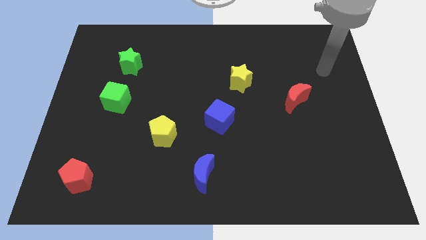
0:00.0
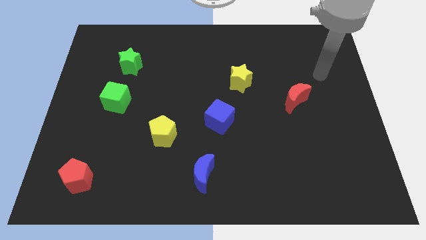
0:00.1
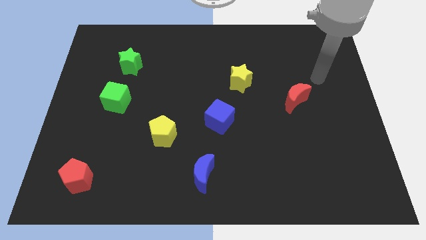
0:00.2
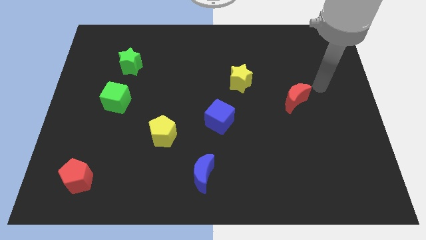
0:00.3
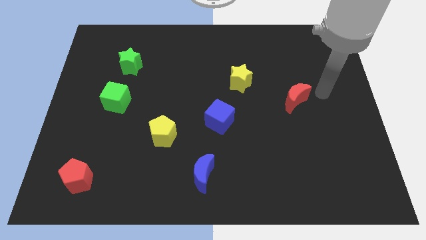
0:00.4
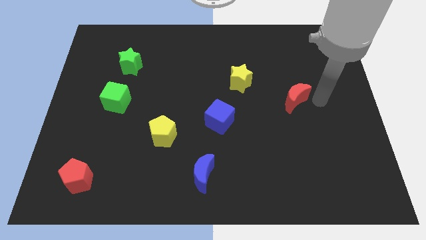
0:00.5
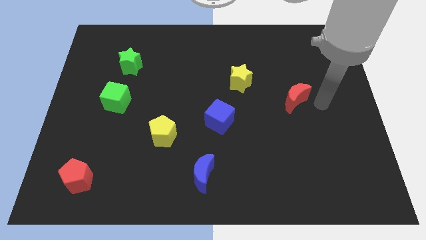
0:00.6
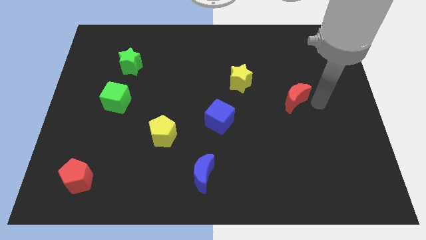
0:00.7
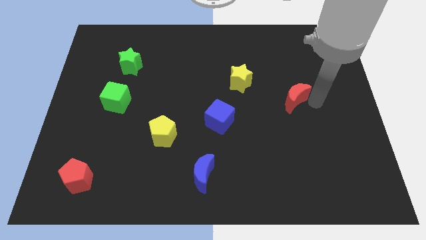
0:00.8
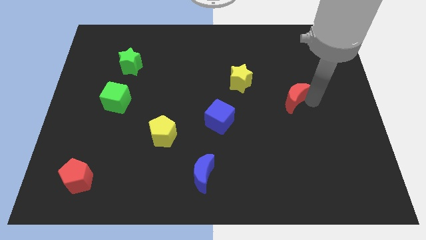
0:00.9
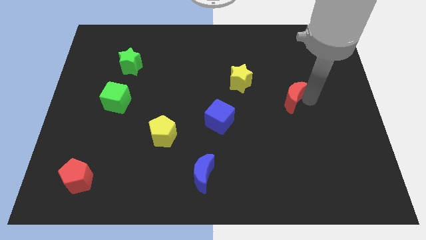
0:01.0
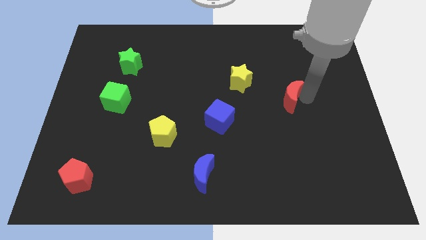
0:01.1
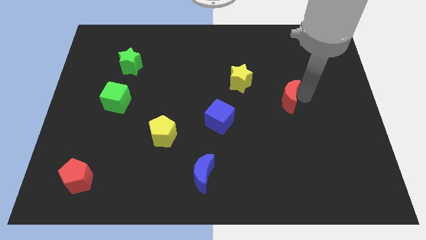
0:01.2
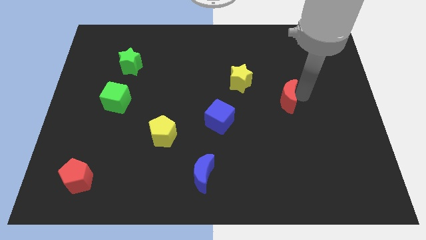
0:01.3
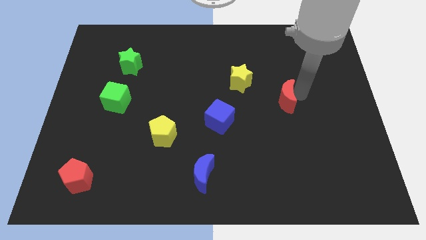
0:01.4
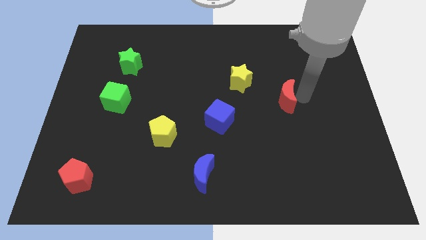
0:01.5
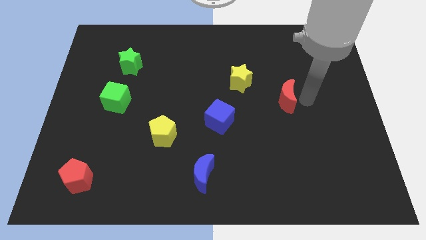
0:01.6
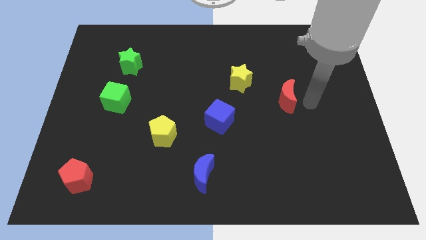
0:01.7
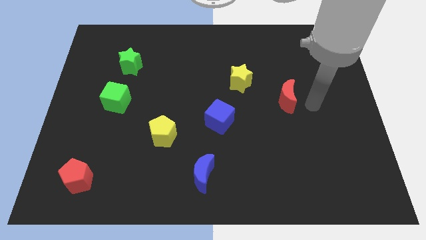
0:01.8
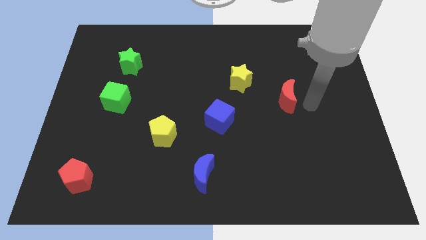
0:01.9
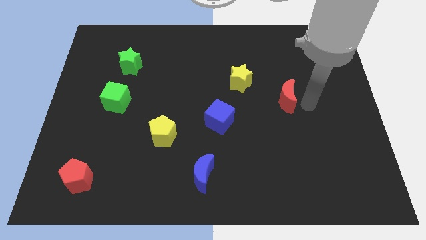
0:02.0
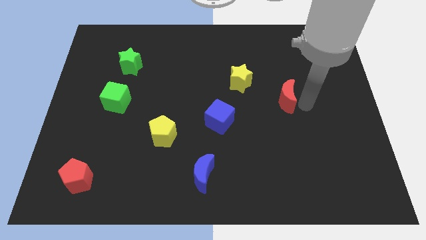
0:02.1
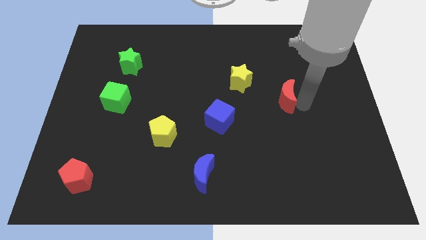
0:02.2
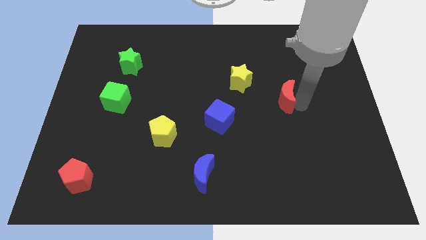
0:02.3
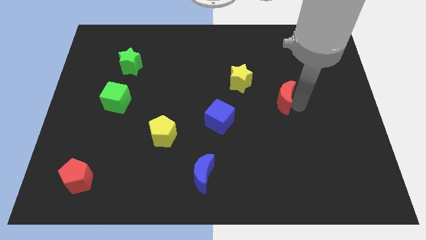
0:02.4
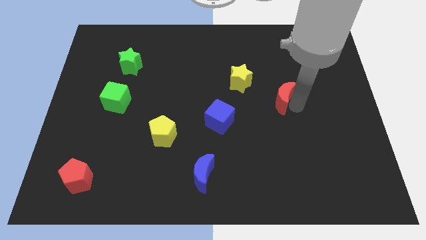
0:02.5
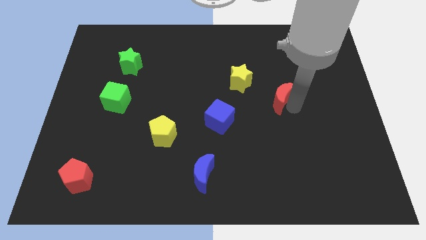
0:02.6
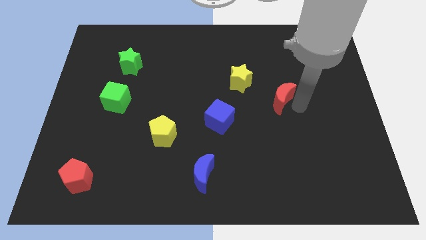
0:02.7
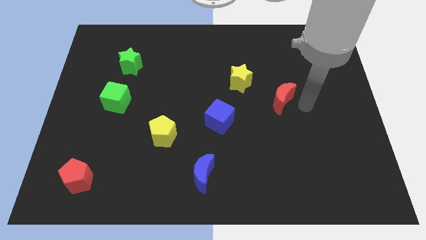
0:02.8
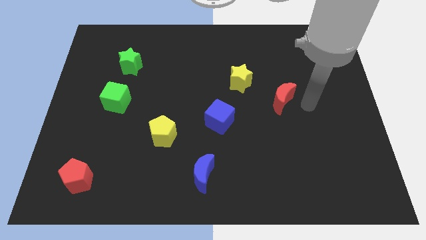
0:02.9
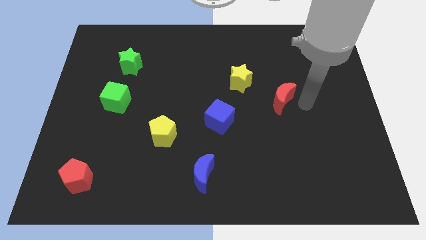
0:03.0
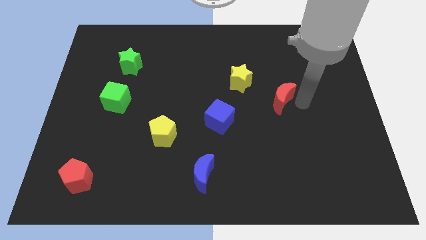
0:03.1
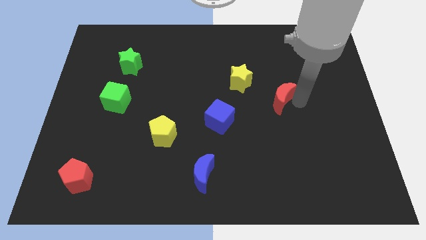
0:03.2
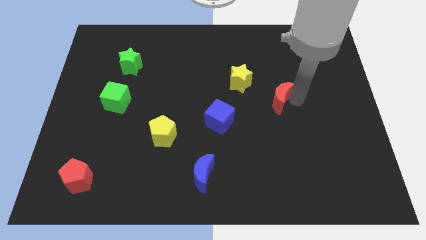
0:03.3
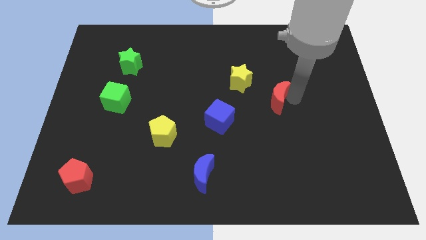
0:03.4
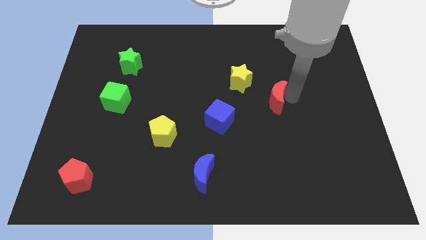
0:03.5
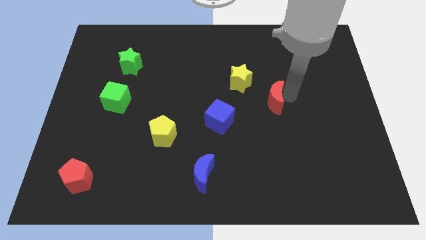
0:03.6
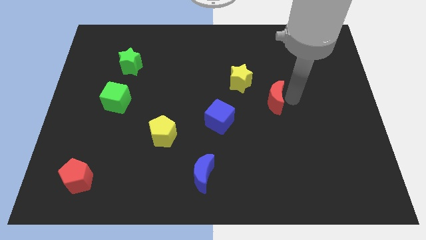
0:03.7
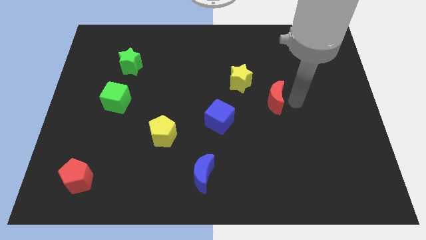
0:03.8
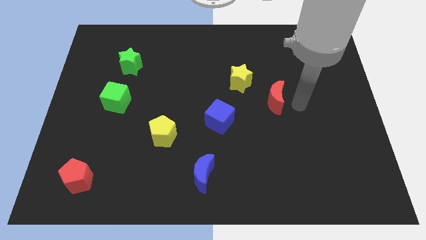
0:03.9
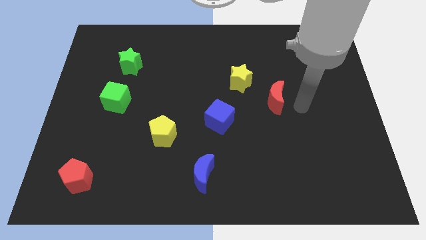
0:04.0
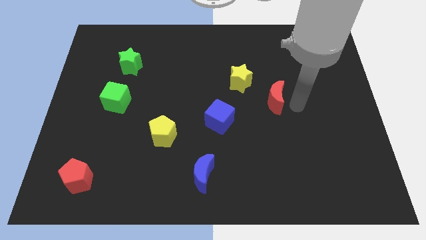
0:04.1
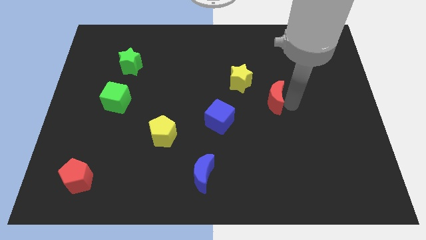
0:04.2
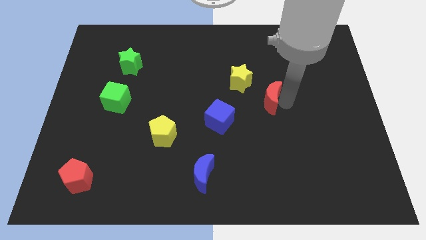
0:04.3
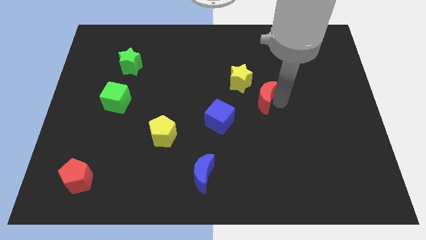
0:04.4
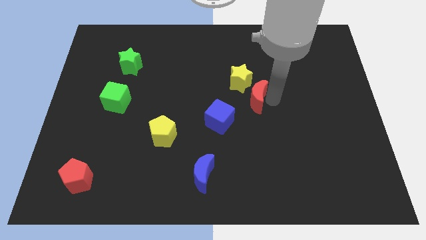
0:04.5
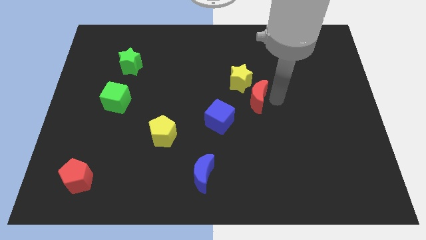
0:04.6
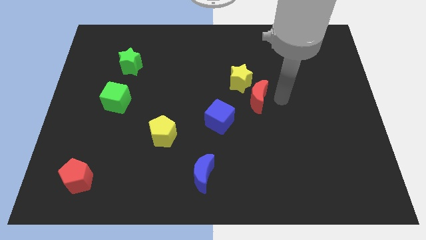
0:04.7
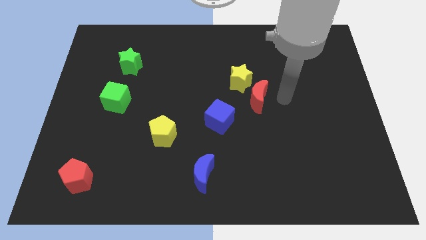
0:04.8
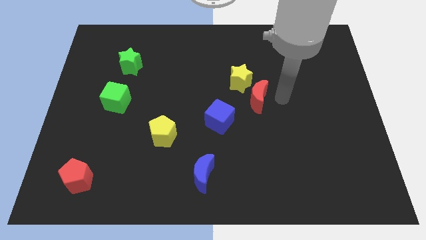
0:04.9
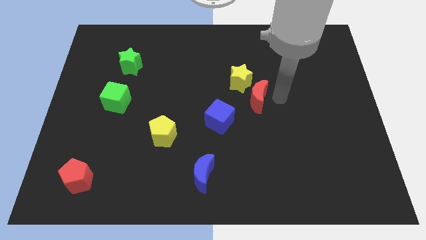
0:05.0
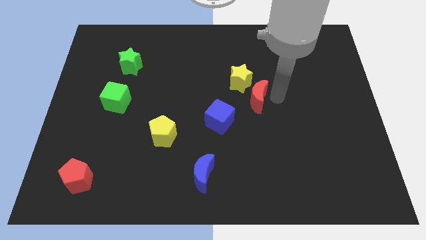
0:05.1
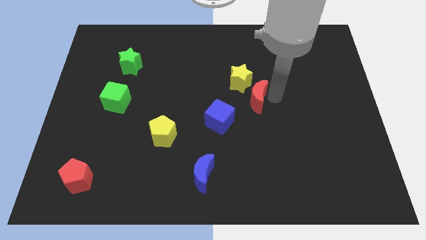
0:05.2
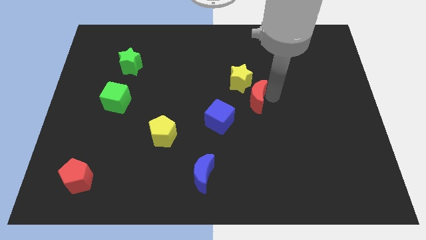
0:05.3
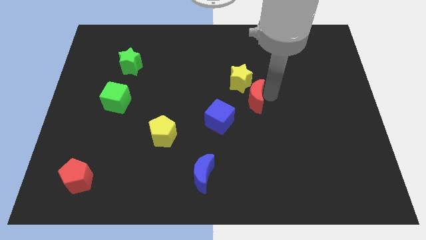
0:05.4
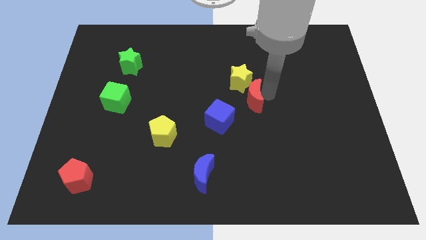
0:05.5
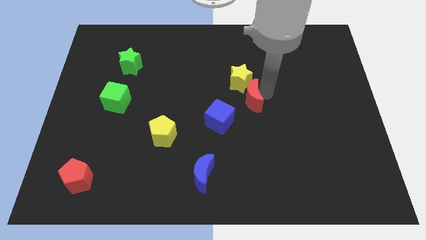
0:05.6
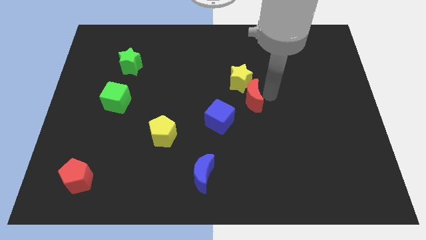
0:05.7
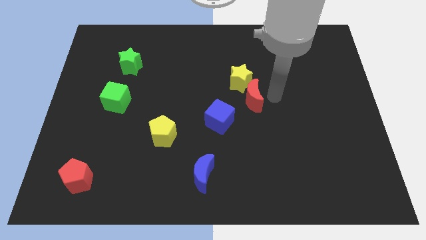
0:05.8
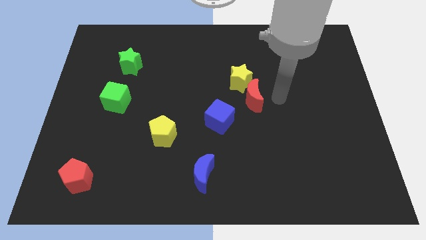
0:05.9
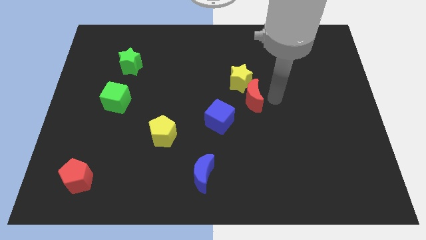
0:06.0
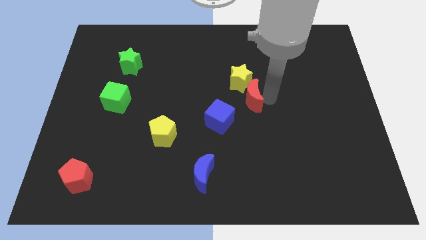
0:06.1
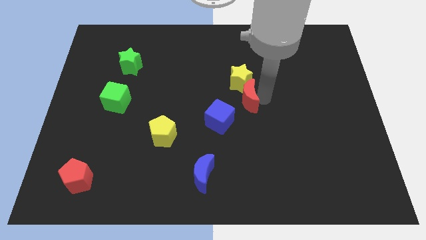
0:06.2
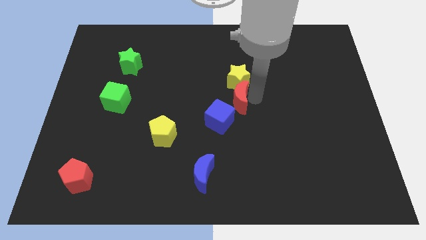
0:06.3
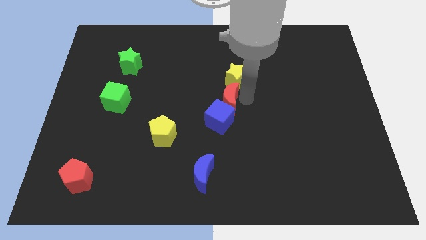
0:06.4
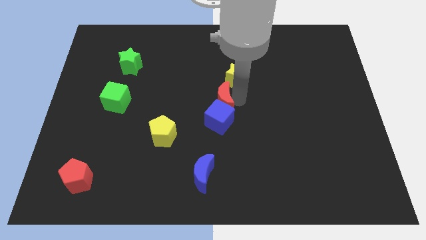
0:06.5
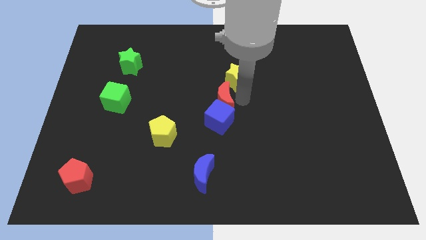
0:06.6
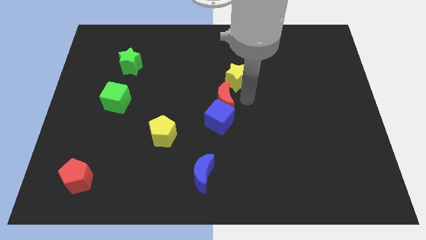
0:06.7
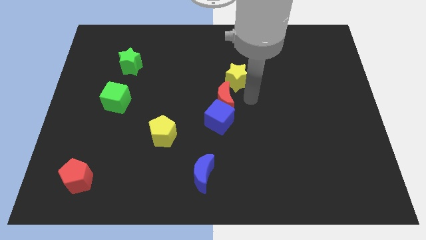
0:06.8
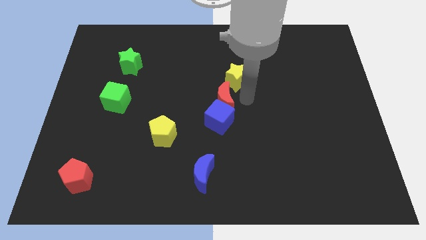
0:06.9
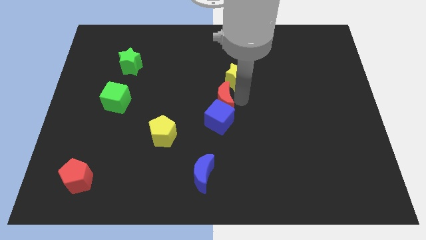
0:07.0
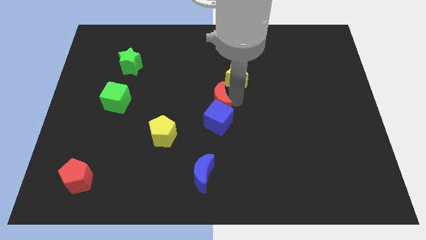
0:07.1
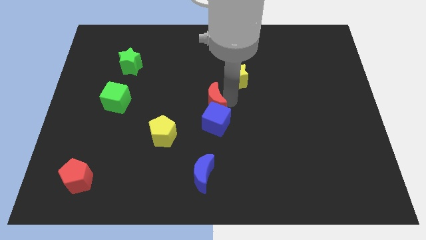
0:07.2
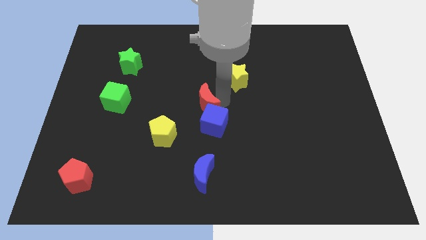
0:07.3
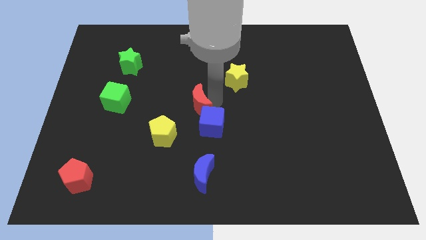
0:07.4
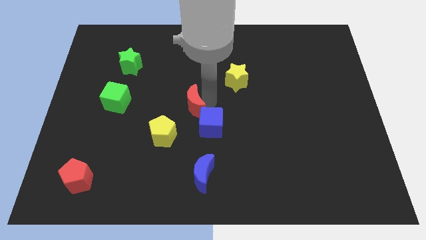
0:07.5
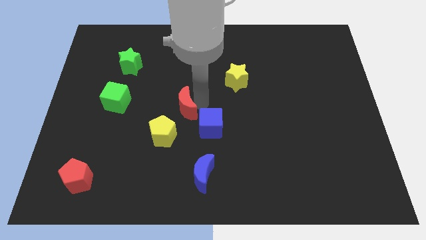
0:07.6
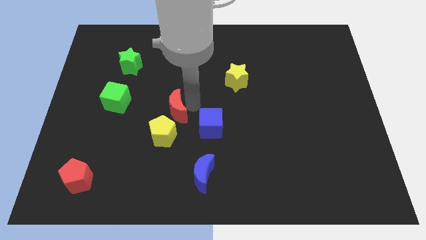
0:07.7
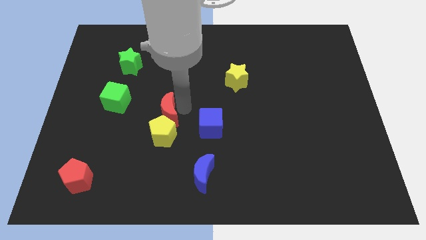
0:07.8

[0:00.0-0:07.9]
push the red moon to the top left of the yellow pentagon
